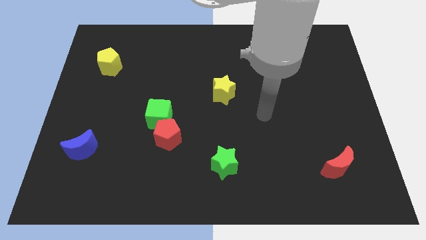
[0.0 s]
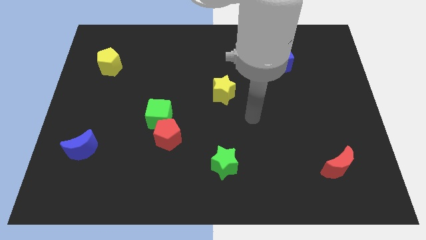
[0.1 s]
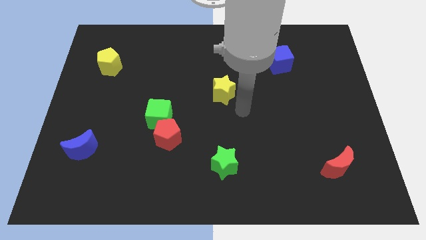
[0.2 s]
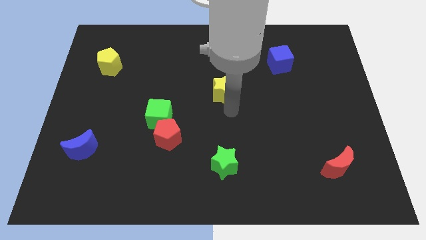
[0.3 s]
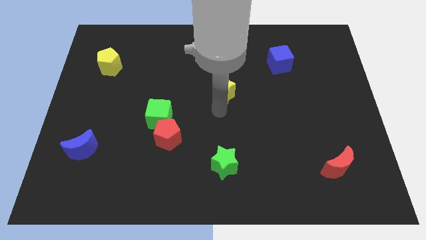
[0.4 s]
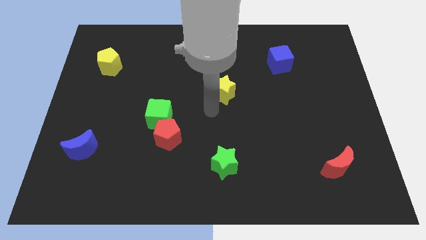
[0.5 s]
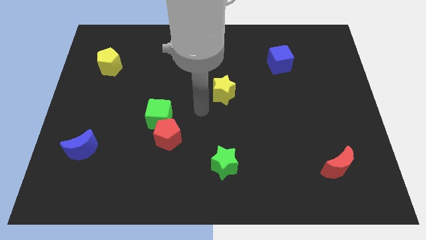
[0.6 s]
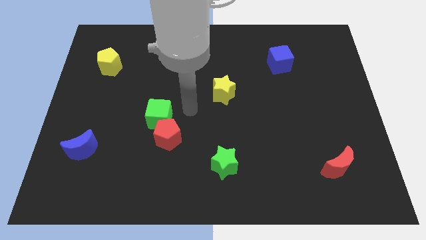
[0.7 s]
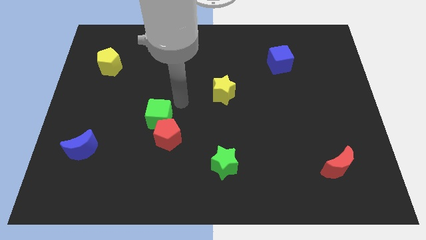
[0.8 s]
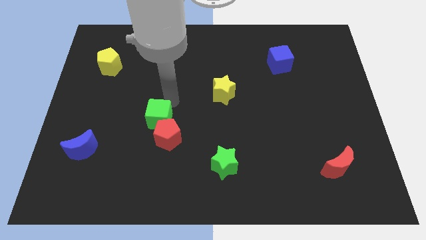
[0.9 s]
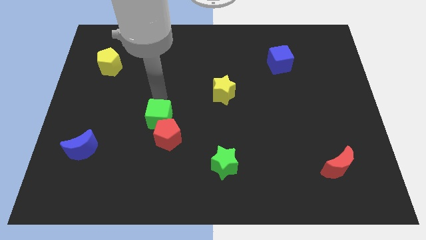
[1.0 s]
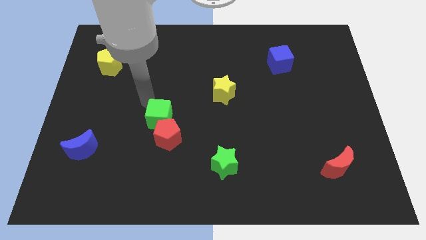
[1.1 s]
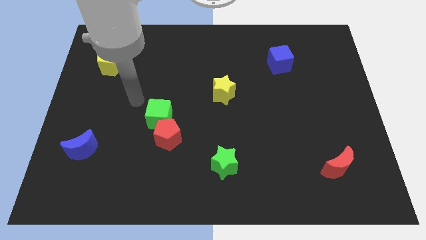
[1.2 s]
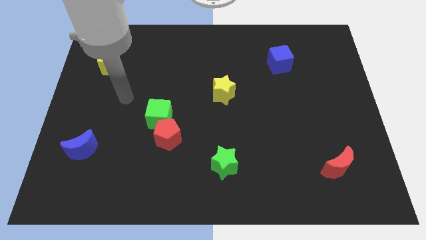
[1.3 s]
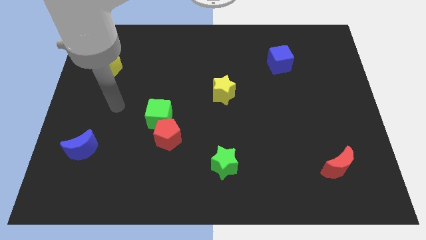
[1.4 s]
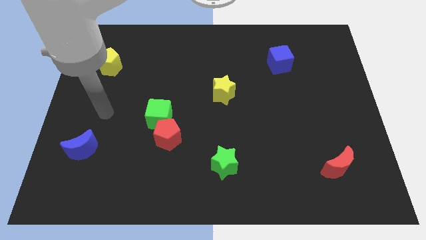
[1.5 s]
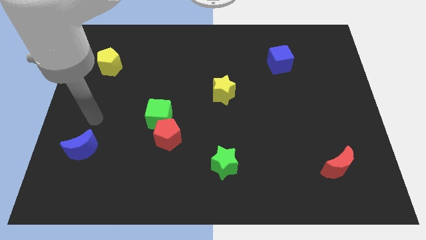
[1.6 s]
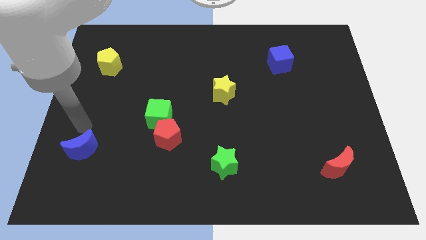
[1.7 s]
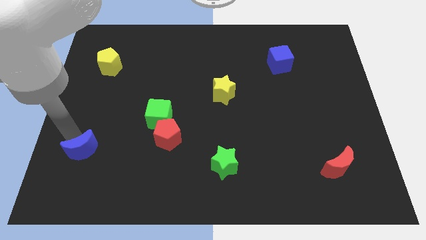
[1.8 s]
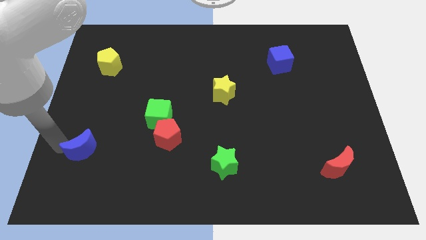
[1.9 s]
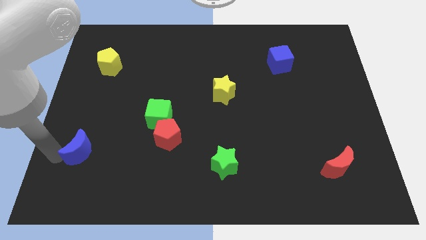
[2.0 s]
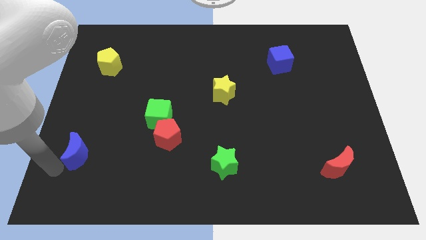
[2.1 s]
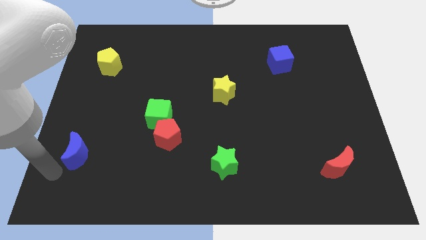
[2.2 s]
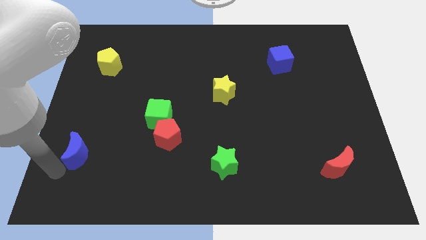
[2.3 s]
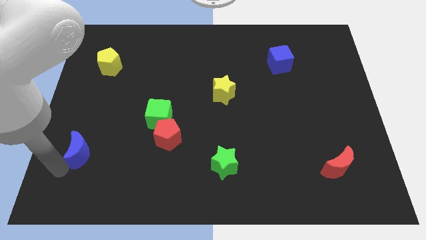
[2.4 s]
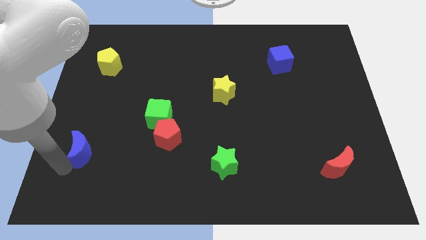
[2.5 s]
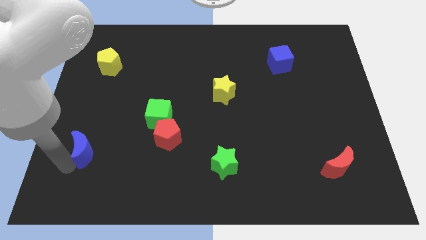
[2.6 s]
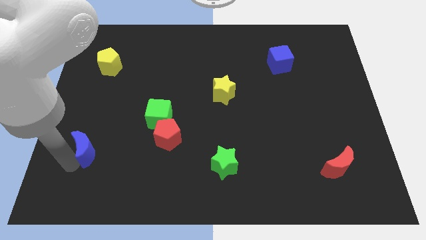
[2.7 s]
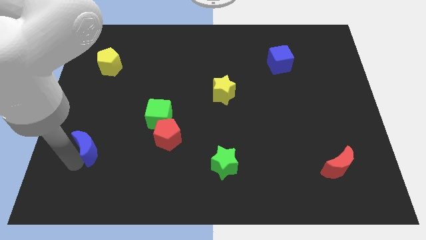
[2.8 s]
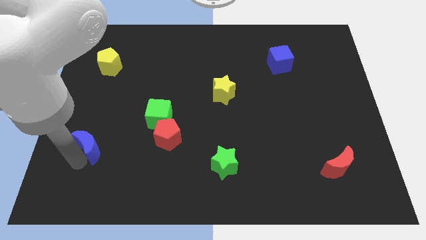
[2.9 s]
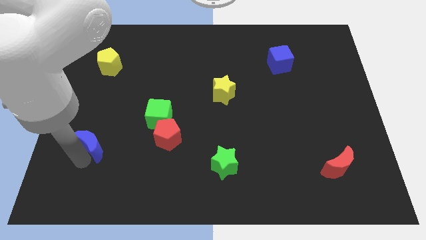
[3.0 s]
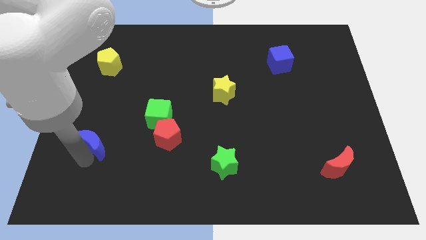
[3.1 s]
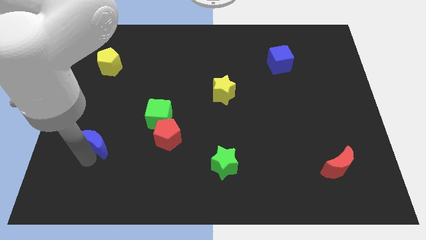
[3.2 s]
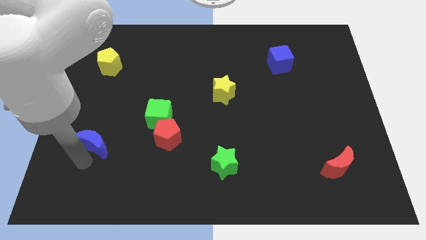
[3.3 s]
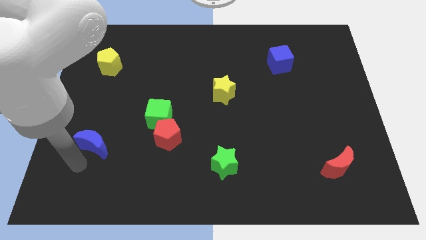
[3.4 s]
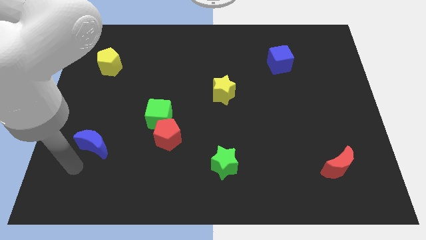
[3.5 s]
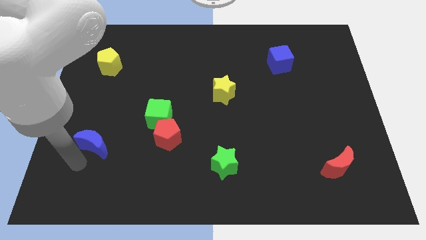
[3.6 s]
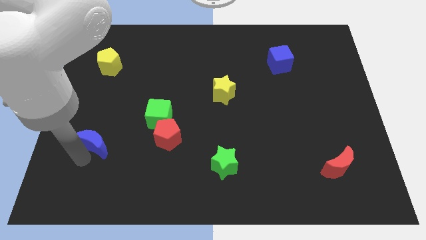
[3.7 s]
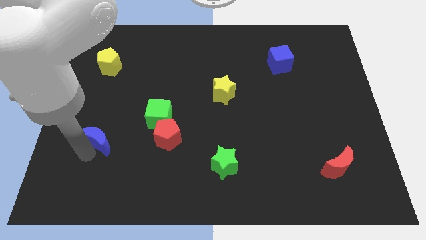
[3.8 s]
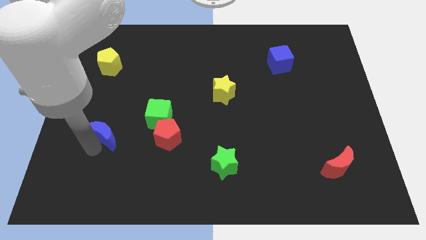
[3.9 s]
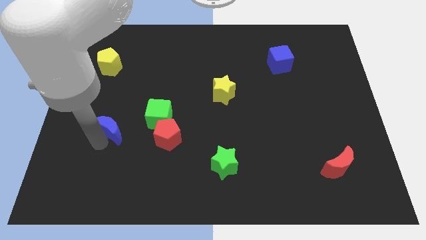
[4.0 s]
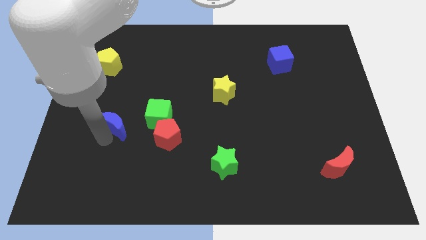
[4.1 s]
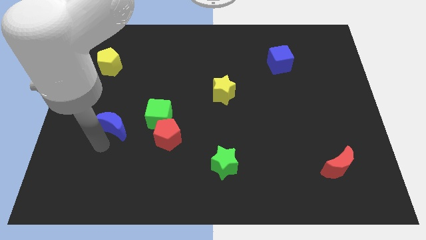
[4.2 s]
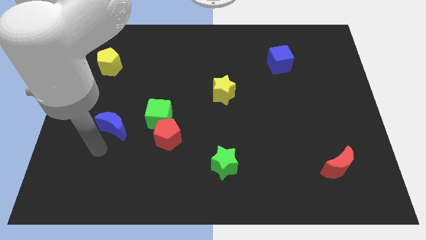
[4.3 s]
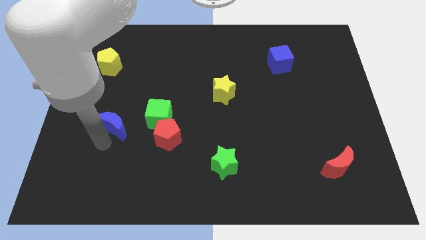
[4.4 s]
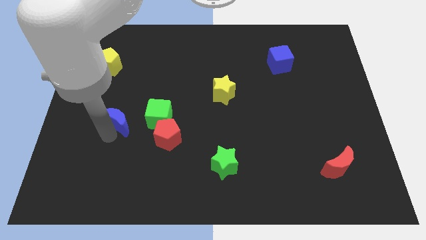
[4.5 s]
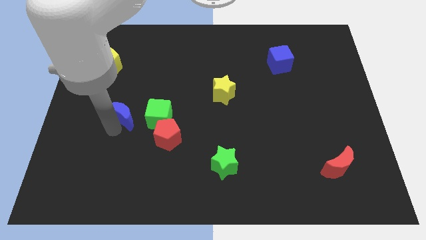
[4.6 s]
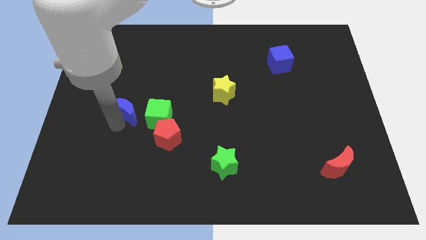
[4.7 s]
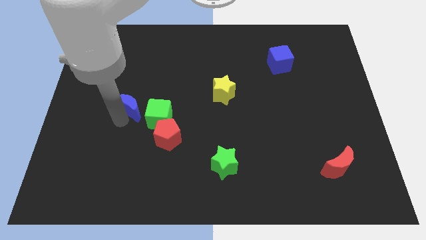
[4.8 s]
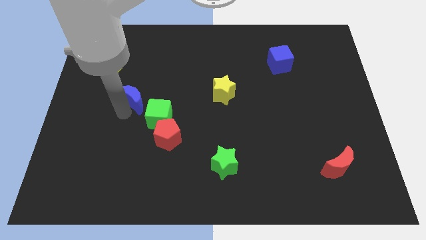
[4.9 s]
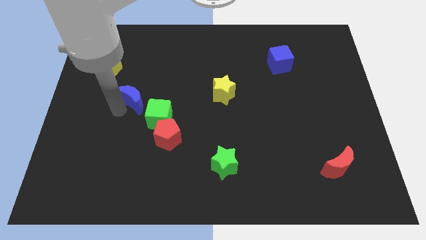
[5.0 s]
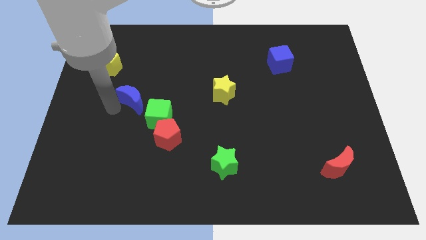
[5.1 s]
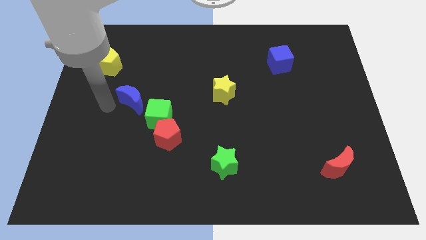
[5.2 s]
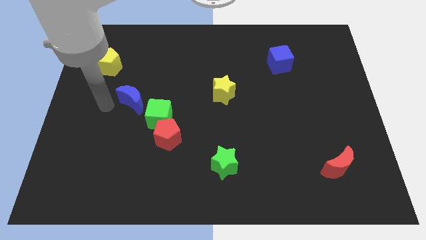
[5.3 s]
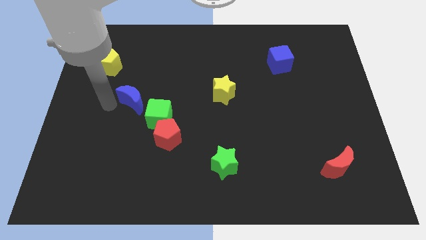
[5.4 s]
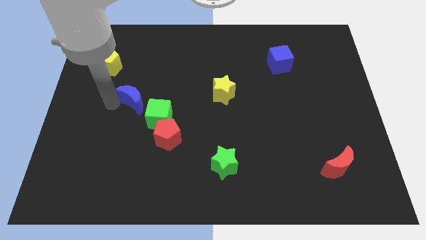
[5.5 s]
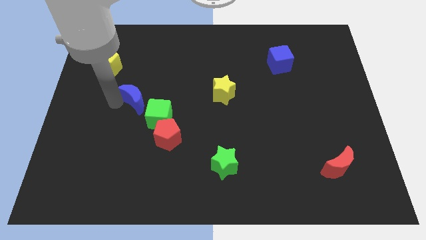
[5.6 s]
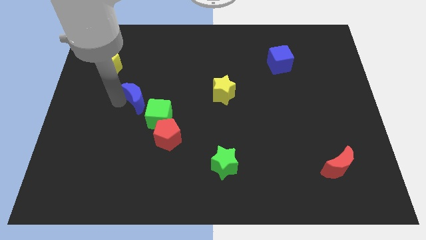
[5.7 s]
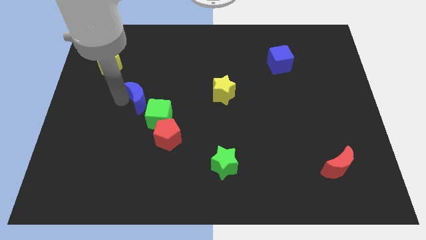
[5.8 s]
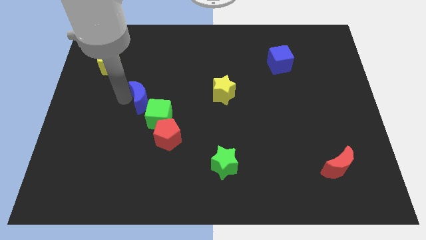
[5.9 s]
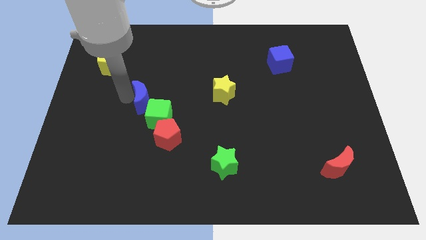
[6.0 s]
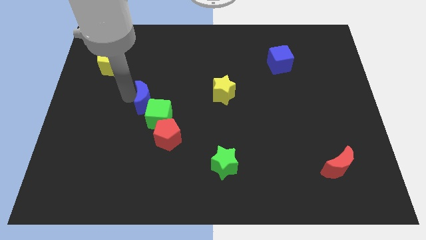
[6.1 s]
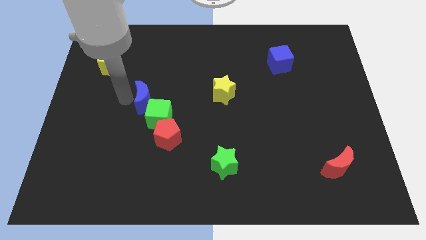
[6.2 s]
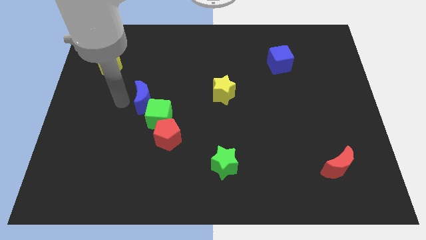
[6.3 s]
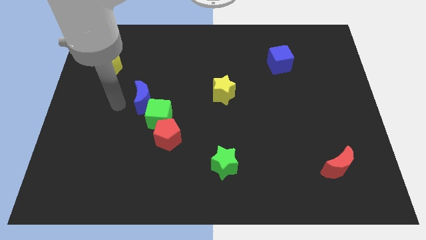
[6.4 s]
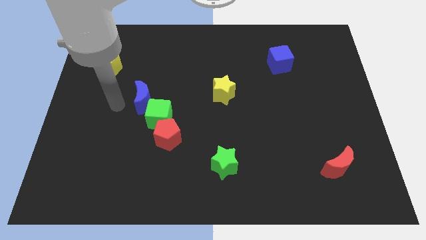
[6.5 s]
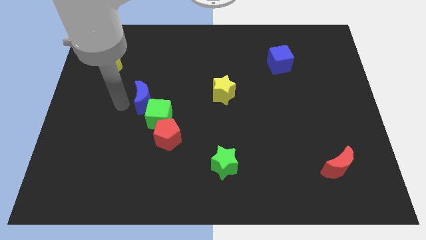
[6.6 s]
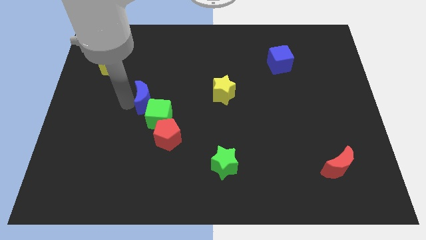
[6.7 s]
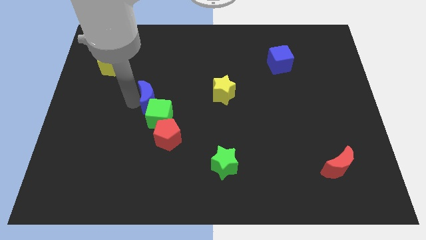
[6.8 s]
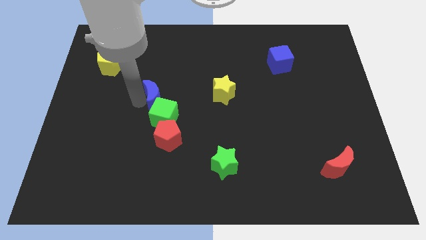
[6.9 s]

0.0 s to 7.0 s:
slide the blue moon up and to the right

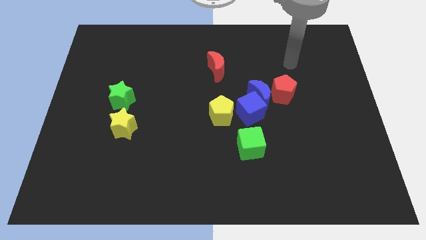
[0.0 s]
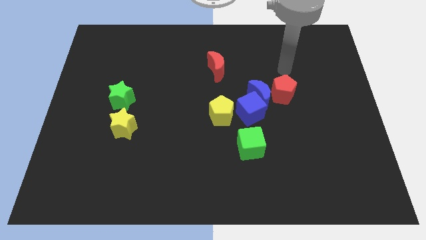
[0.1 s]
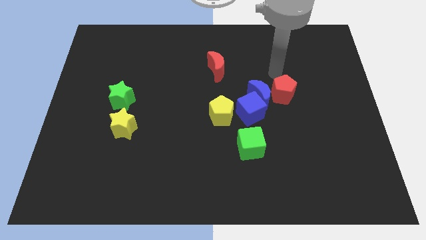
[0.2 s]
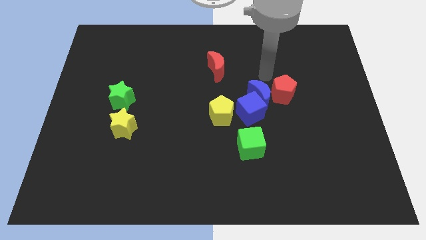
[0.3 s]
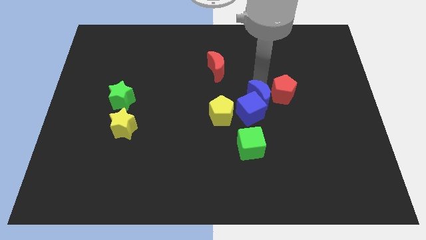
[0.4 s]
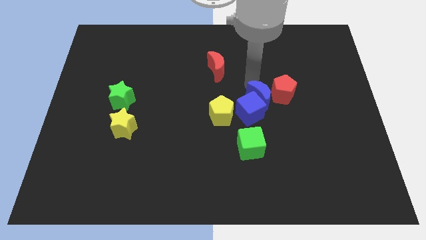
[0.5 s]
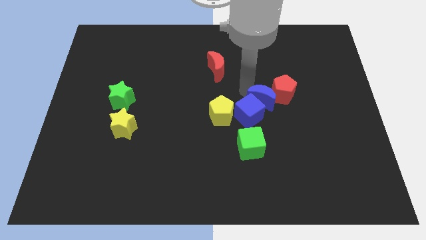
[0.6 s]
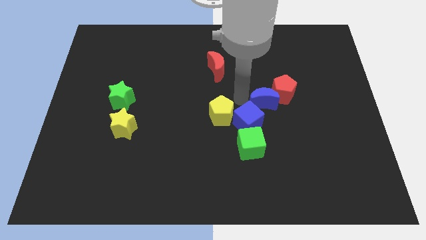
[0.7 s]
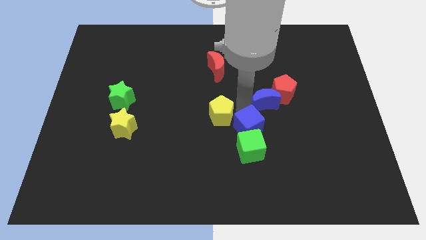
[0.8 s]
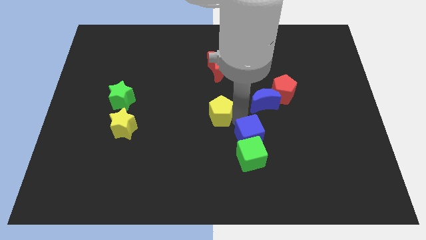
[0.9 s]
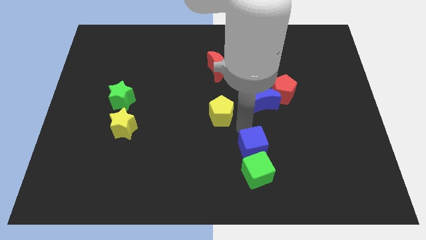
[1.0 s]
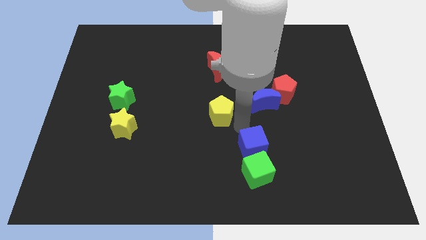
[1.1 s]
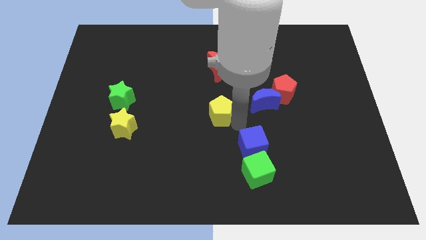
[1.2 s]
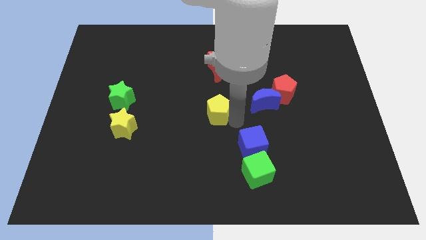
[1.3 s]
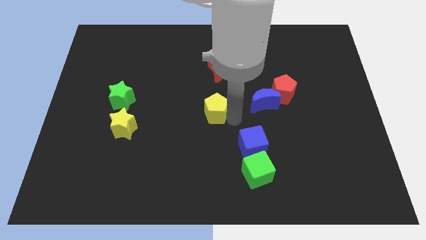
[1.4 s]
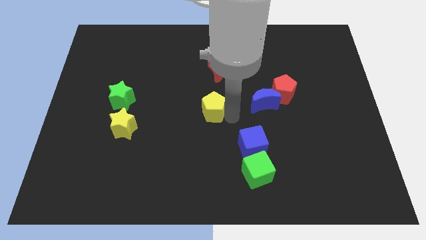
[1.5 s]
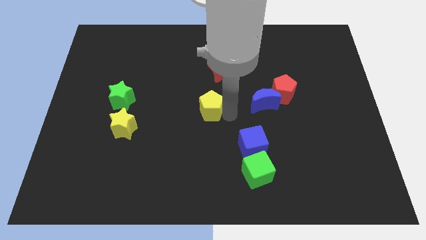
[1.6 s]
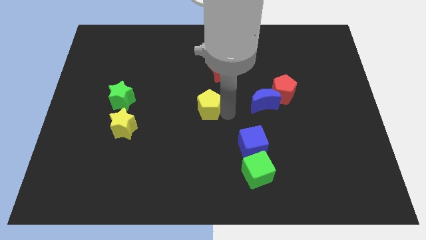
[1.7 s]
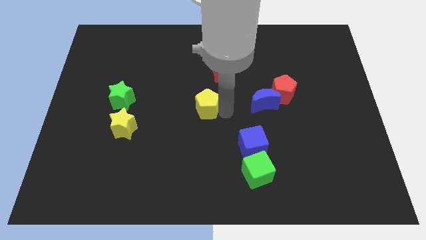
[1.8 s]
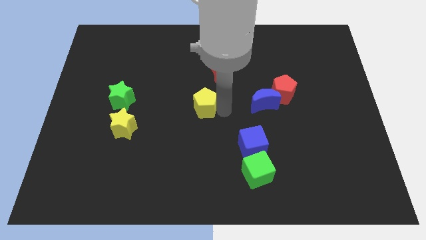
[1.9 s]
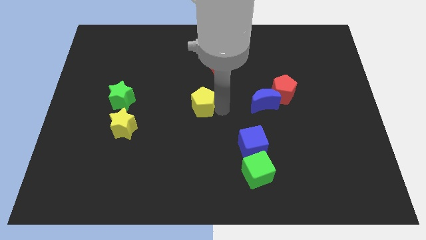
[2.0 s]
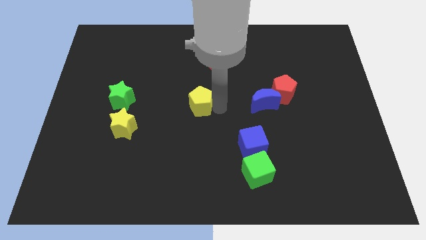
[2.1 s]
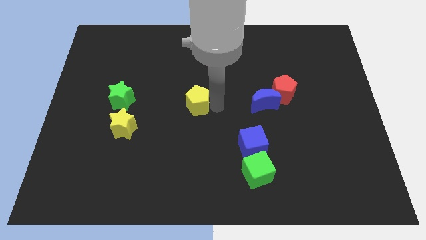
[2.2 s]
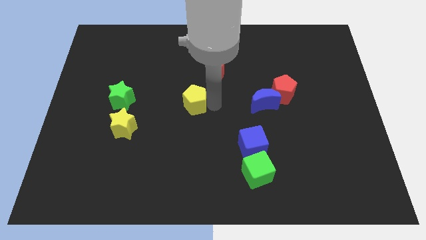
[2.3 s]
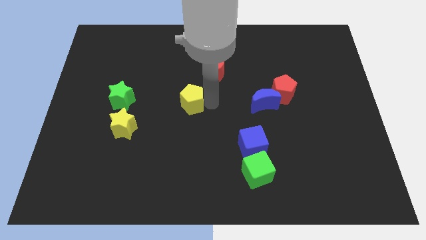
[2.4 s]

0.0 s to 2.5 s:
slide the yellow pentagon up and then to the left a little bit
